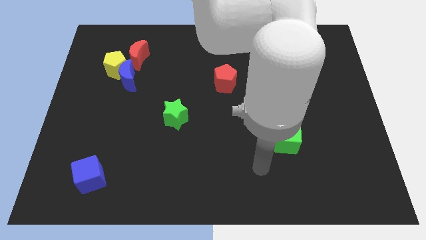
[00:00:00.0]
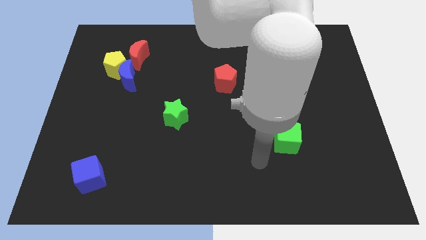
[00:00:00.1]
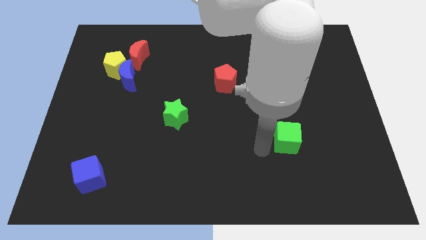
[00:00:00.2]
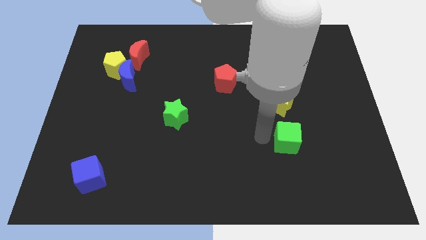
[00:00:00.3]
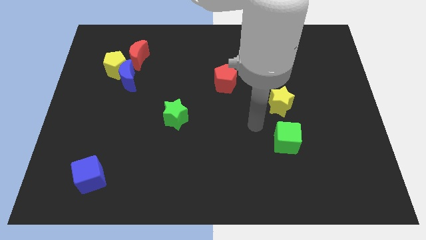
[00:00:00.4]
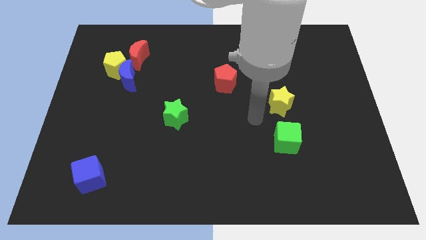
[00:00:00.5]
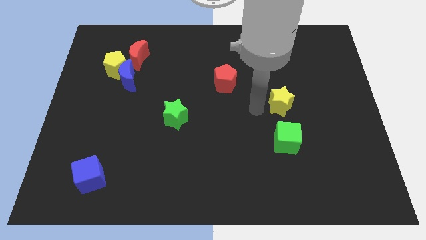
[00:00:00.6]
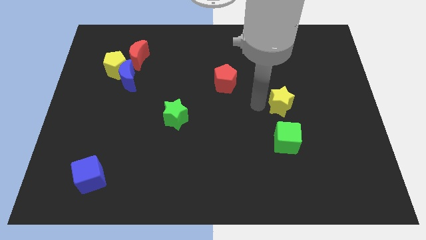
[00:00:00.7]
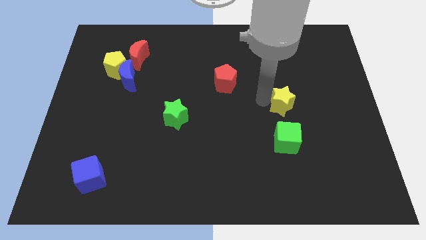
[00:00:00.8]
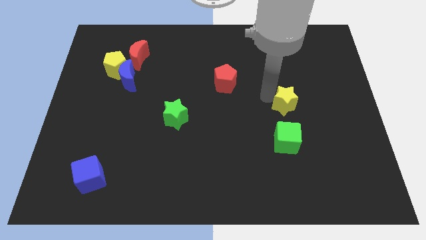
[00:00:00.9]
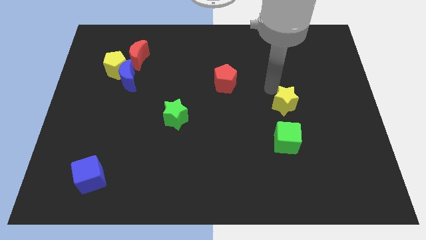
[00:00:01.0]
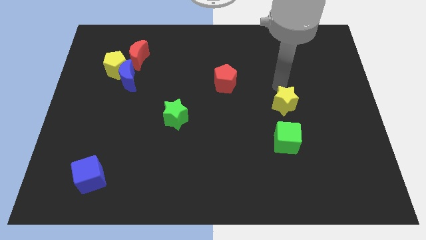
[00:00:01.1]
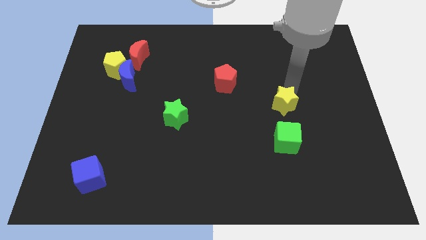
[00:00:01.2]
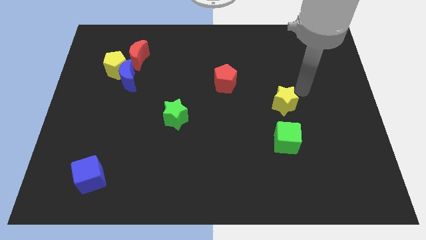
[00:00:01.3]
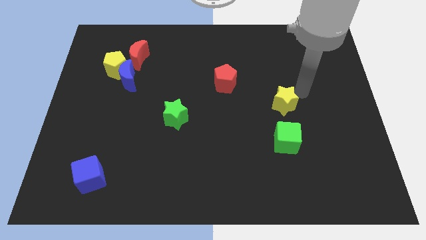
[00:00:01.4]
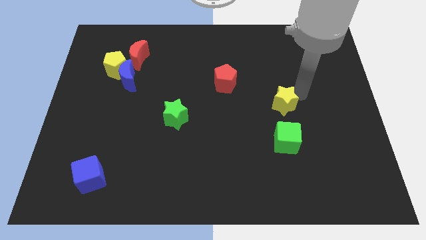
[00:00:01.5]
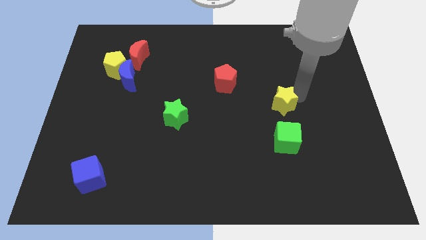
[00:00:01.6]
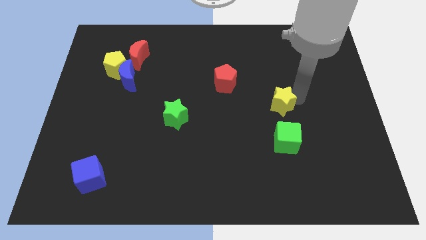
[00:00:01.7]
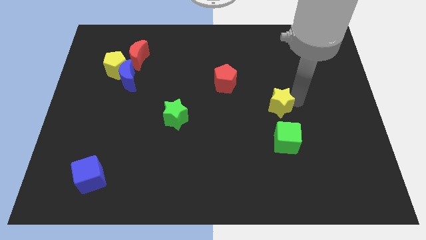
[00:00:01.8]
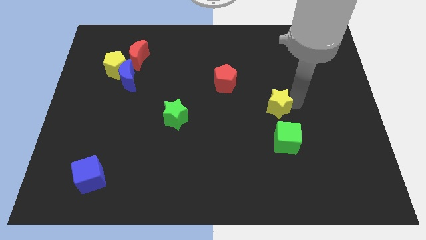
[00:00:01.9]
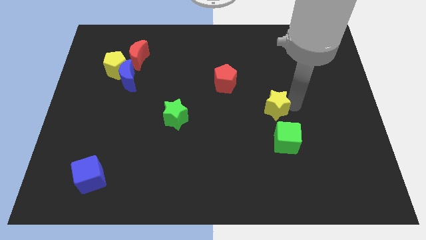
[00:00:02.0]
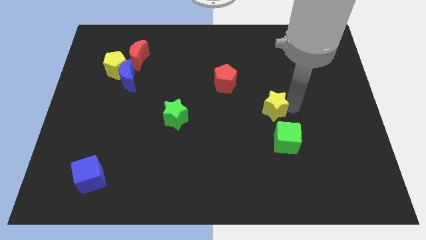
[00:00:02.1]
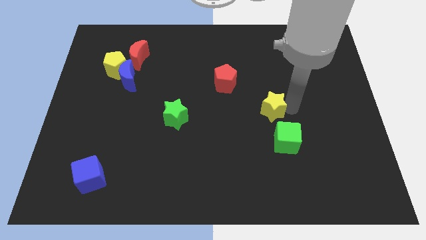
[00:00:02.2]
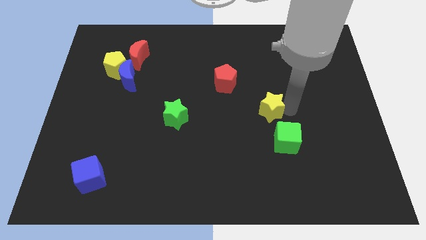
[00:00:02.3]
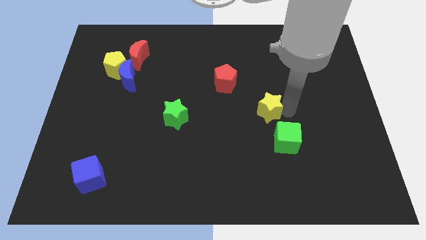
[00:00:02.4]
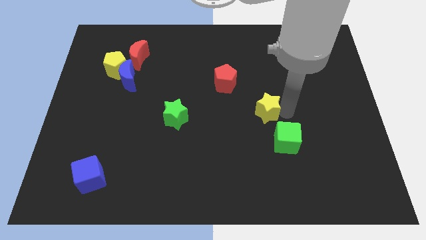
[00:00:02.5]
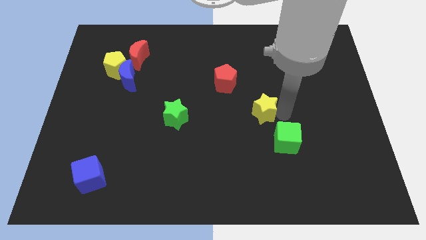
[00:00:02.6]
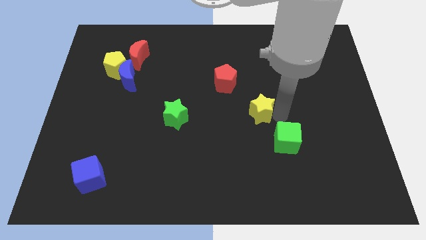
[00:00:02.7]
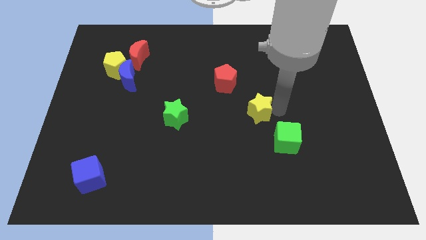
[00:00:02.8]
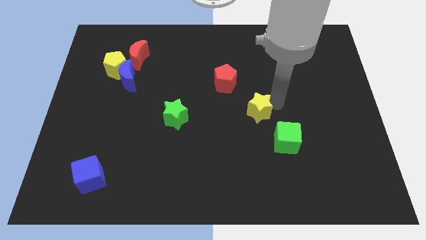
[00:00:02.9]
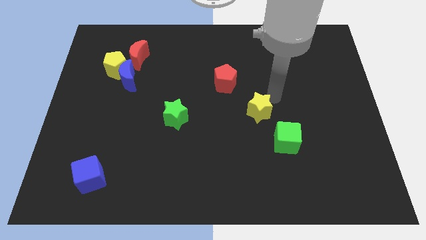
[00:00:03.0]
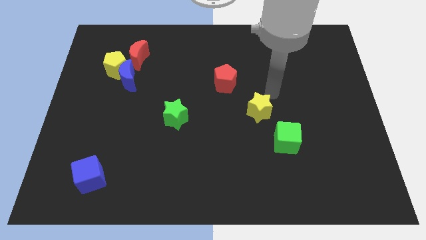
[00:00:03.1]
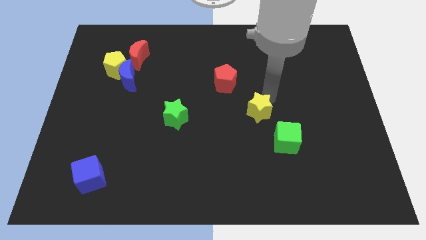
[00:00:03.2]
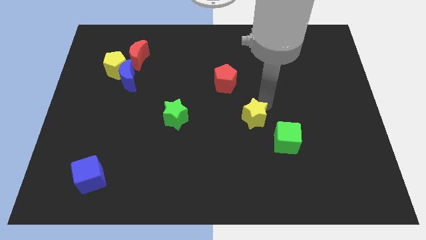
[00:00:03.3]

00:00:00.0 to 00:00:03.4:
push the yellow star diagonally down and to the left a bit

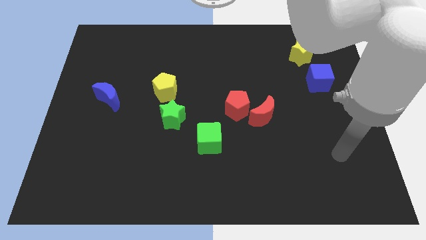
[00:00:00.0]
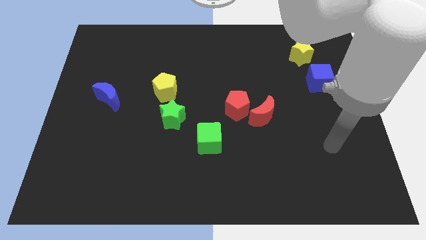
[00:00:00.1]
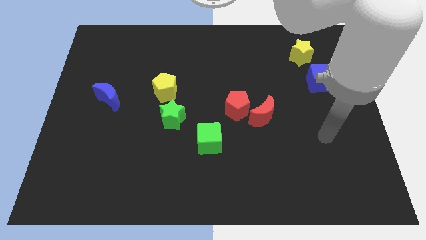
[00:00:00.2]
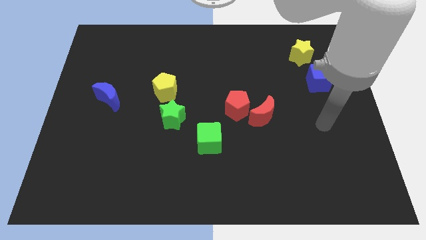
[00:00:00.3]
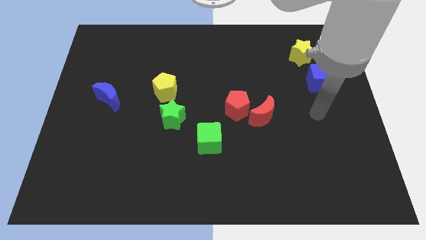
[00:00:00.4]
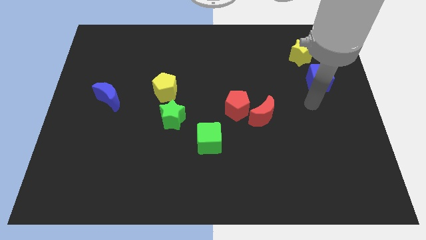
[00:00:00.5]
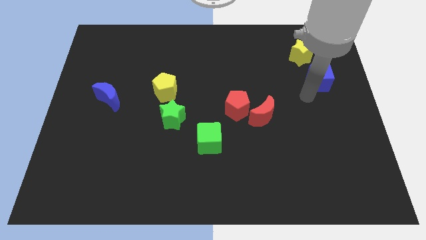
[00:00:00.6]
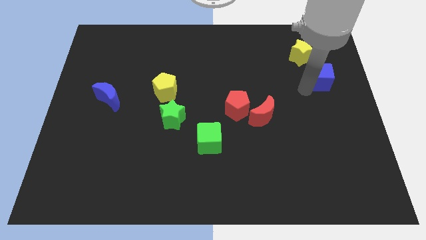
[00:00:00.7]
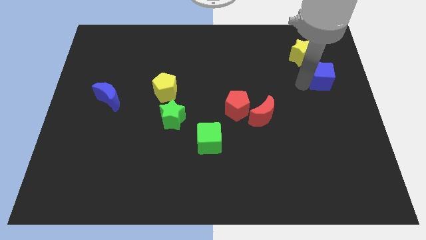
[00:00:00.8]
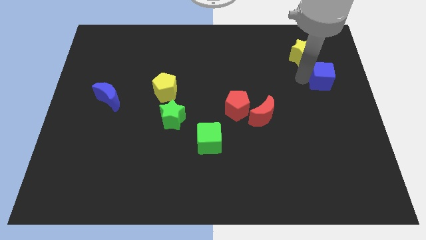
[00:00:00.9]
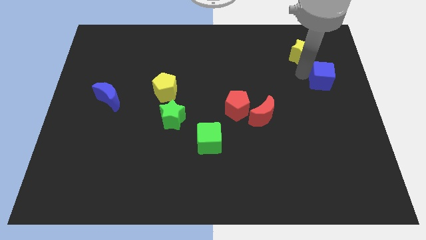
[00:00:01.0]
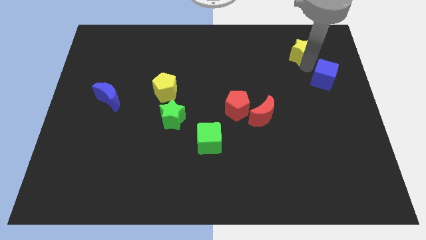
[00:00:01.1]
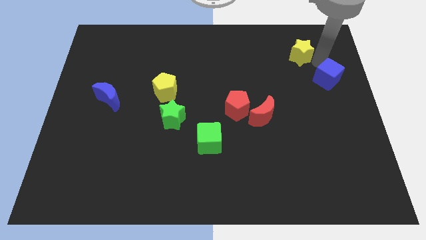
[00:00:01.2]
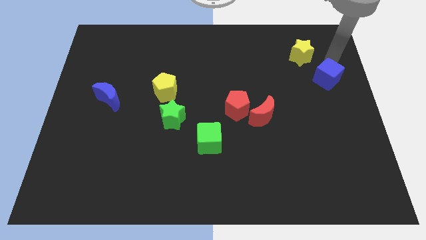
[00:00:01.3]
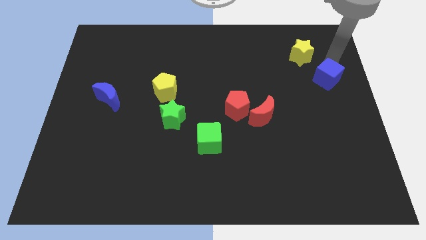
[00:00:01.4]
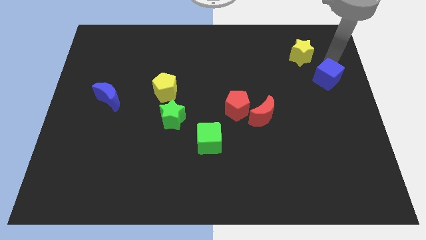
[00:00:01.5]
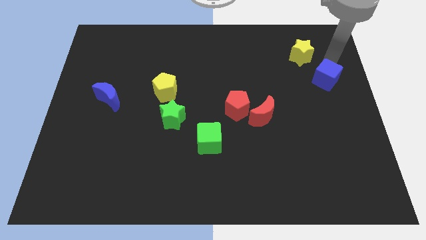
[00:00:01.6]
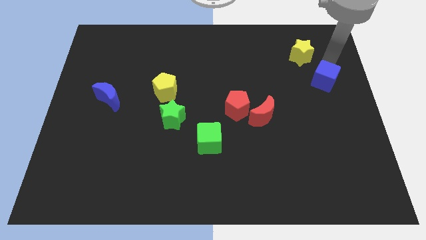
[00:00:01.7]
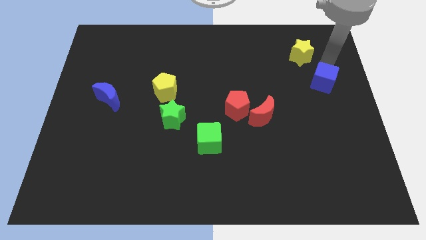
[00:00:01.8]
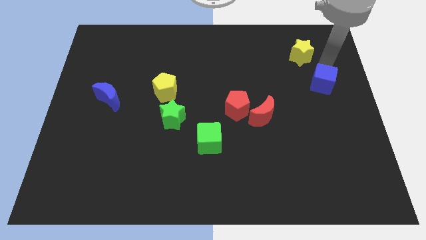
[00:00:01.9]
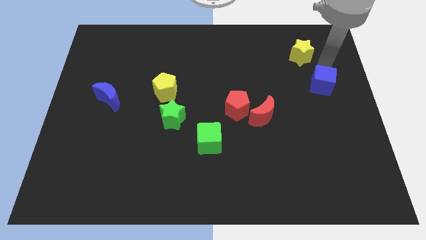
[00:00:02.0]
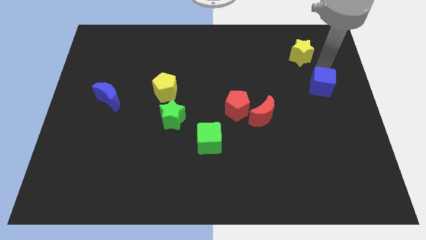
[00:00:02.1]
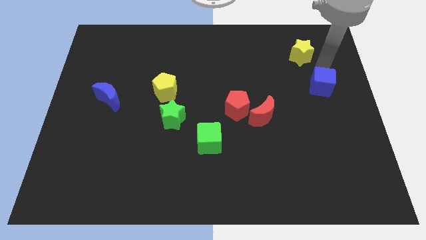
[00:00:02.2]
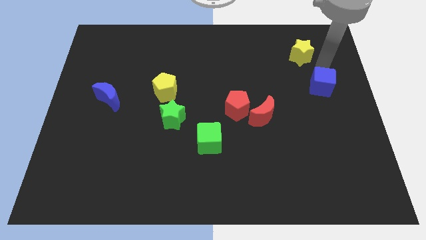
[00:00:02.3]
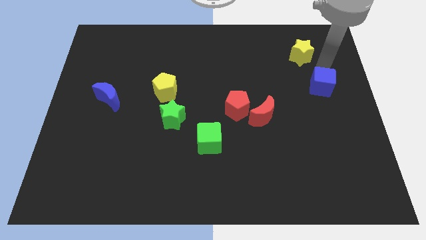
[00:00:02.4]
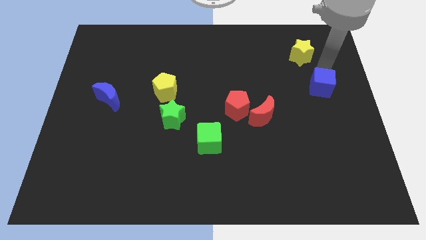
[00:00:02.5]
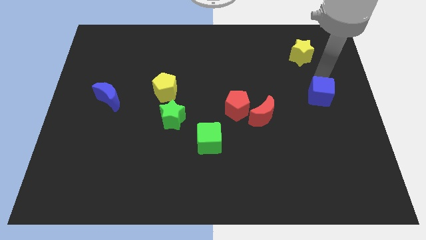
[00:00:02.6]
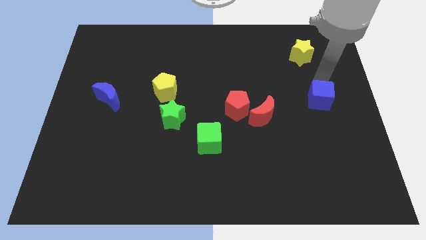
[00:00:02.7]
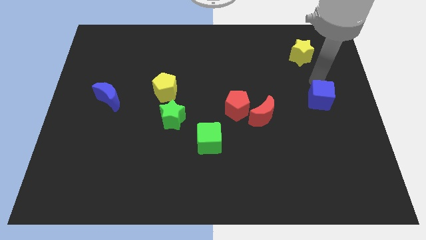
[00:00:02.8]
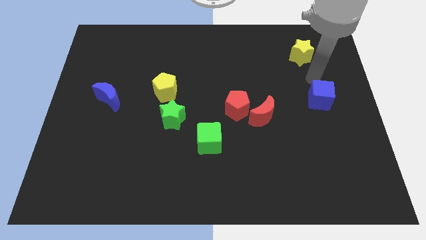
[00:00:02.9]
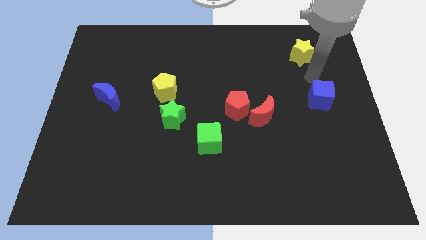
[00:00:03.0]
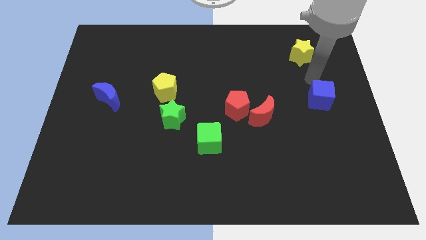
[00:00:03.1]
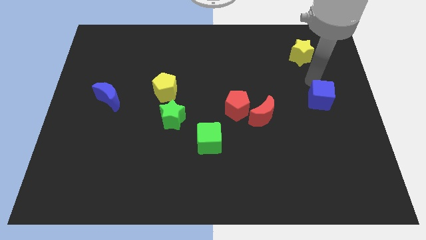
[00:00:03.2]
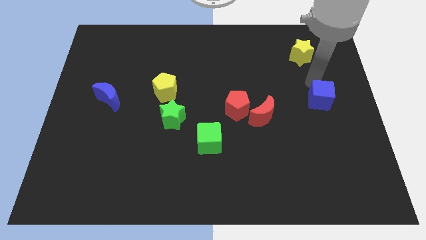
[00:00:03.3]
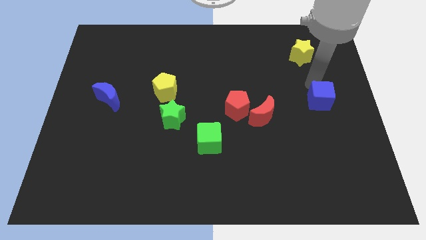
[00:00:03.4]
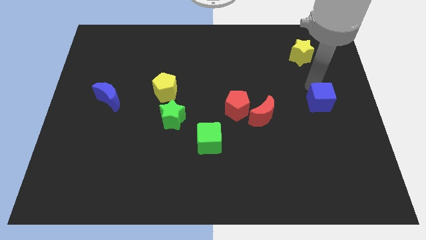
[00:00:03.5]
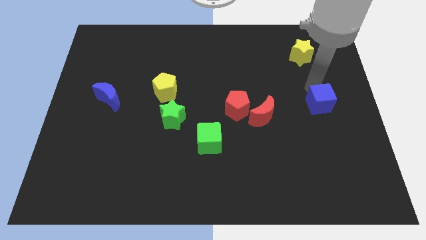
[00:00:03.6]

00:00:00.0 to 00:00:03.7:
push the blue cube downwards a bit

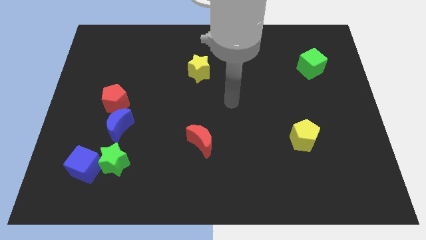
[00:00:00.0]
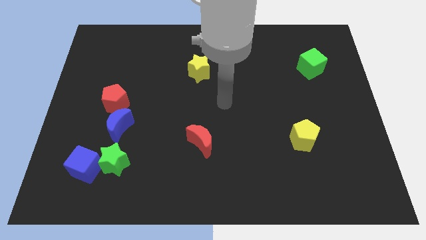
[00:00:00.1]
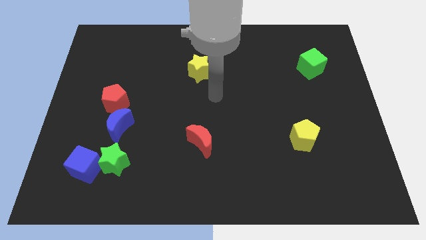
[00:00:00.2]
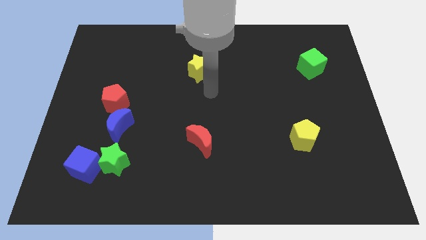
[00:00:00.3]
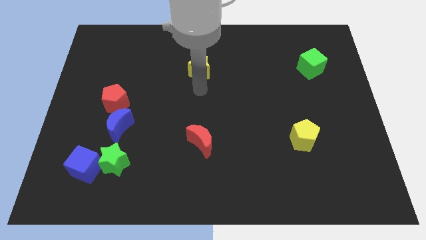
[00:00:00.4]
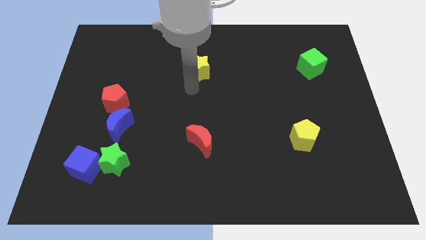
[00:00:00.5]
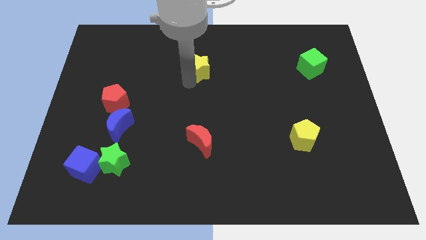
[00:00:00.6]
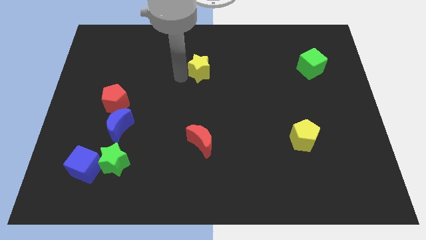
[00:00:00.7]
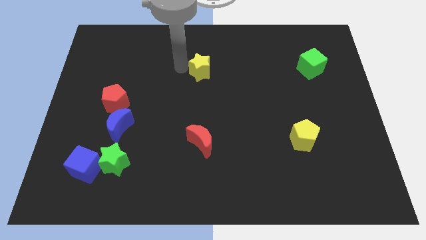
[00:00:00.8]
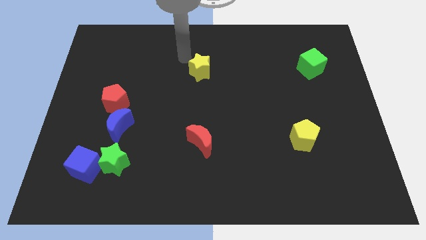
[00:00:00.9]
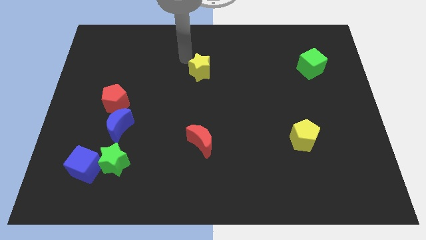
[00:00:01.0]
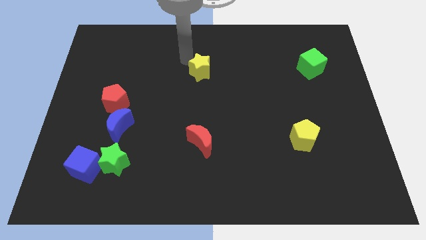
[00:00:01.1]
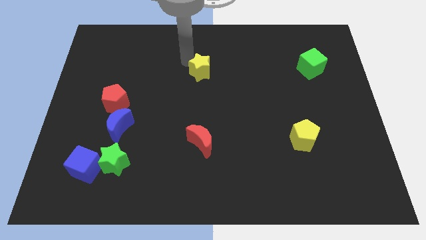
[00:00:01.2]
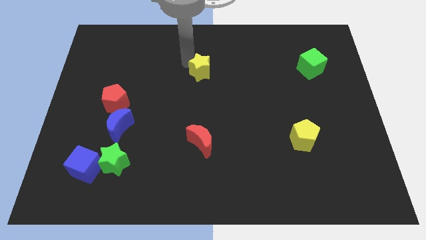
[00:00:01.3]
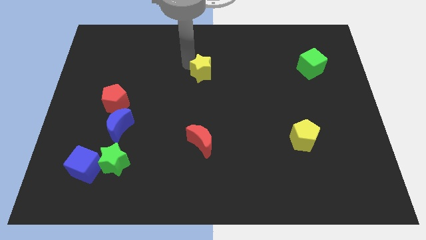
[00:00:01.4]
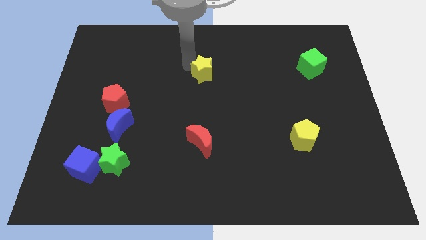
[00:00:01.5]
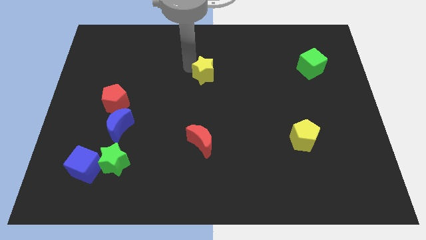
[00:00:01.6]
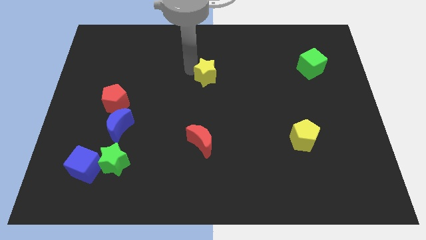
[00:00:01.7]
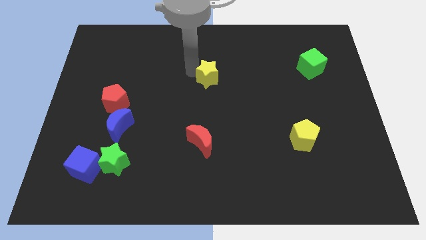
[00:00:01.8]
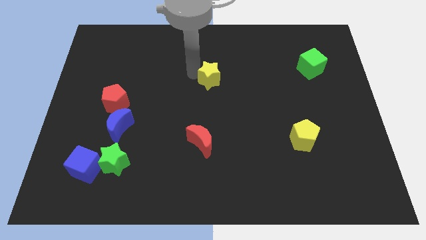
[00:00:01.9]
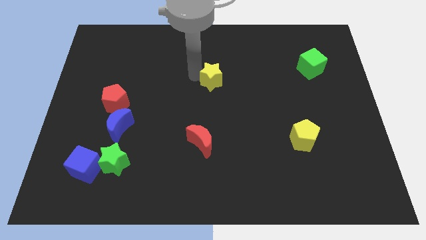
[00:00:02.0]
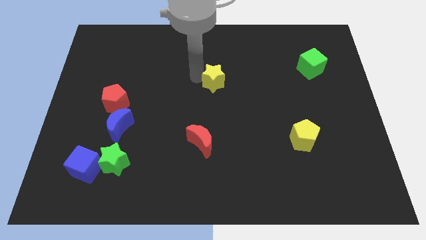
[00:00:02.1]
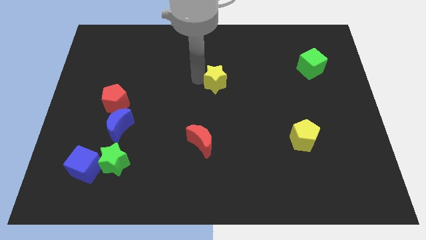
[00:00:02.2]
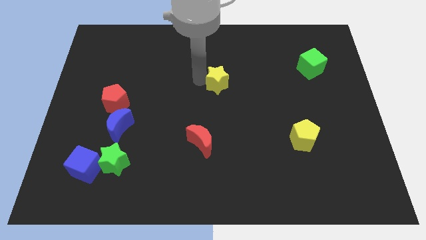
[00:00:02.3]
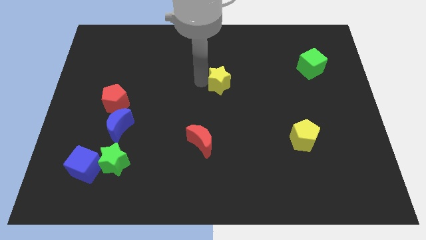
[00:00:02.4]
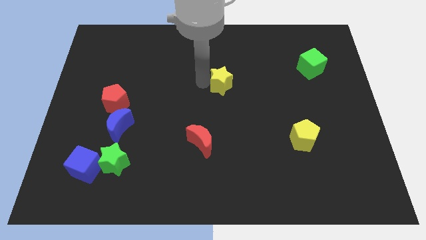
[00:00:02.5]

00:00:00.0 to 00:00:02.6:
move the yellow star a little bit diagonally downwards and right
